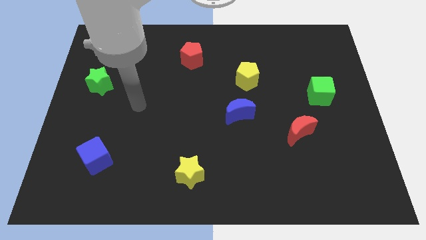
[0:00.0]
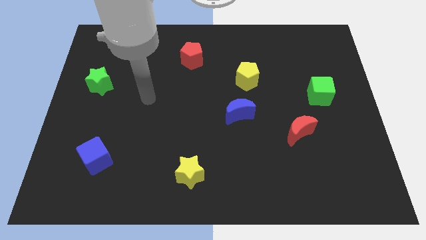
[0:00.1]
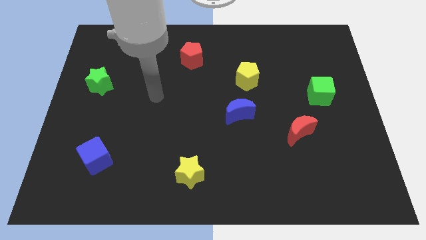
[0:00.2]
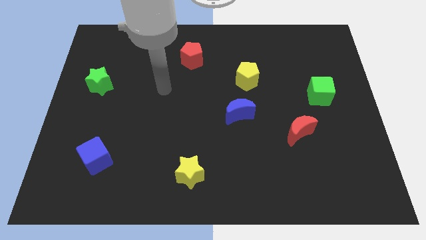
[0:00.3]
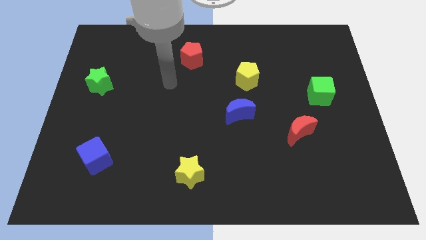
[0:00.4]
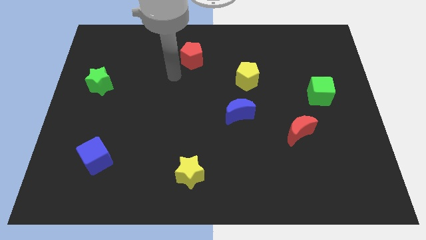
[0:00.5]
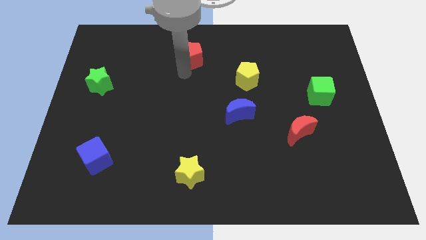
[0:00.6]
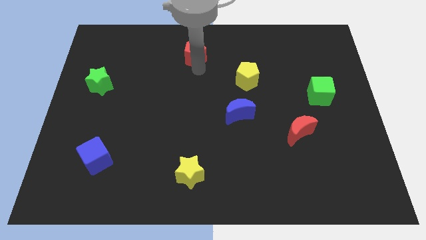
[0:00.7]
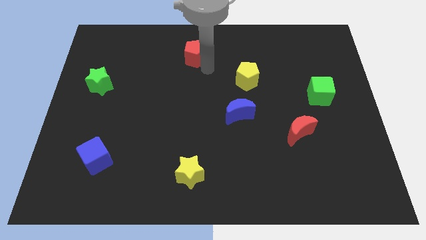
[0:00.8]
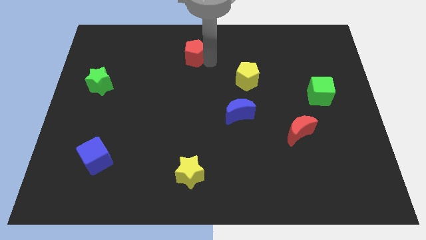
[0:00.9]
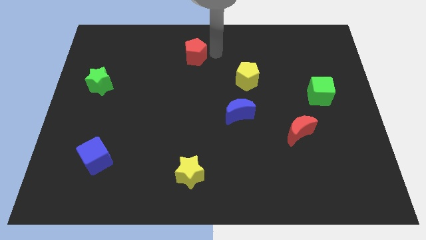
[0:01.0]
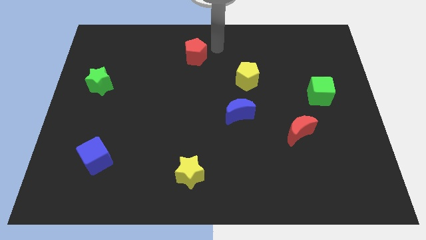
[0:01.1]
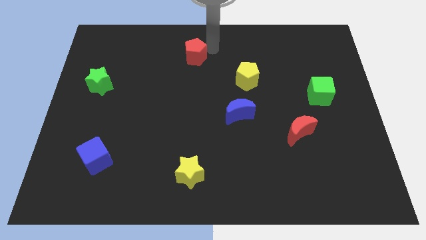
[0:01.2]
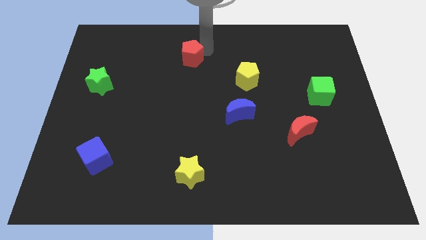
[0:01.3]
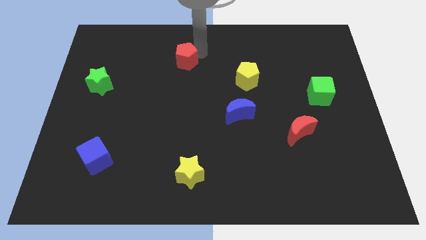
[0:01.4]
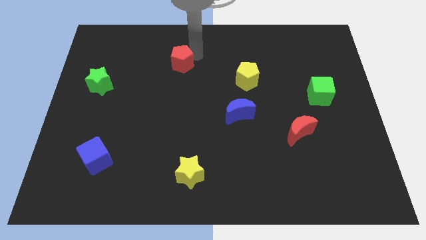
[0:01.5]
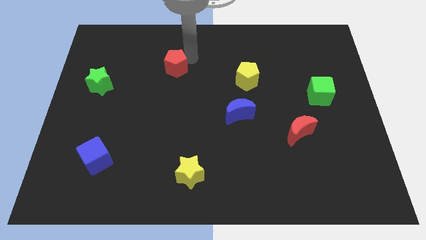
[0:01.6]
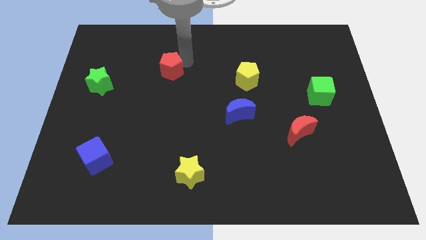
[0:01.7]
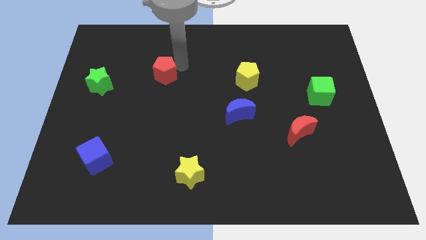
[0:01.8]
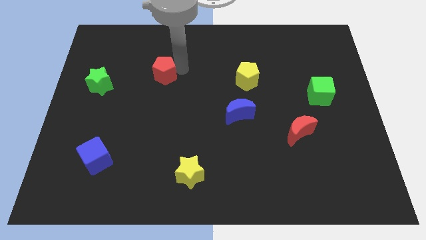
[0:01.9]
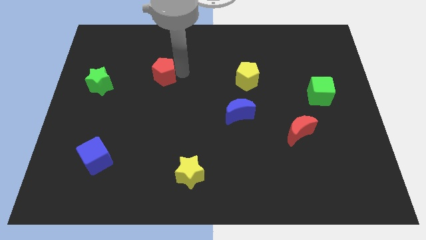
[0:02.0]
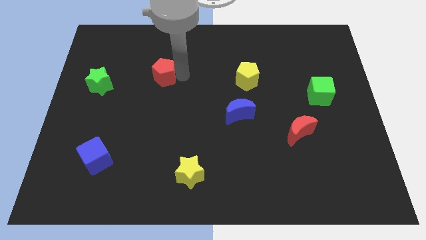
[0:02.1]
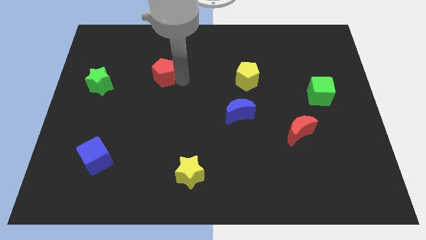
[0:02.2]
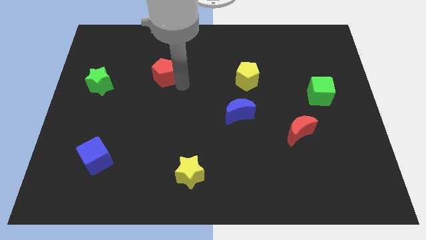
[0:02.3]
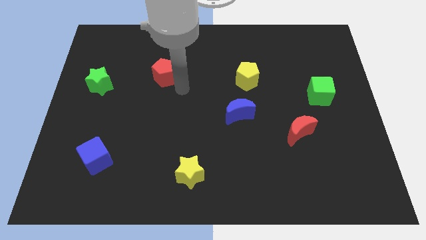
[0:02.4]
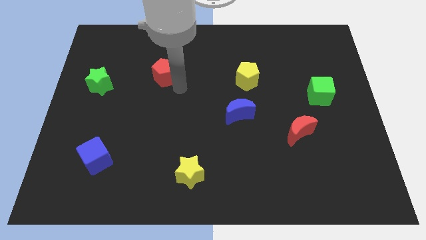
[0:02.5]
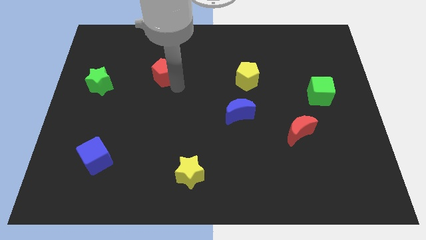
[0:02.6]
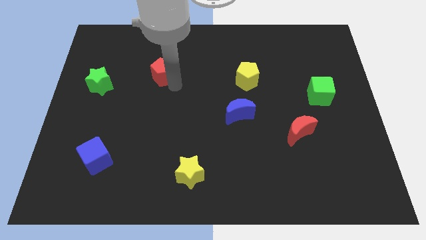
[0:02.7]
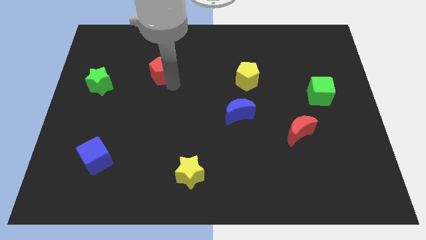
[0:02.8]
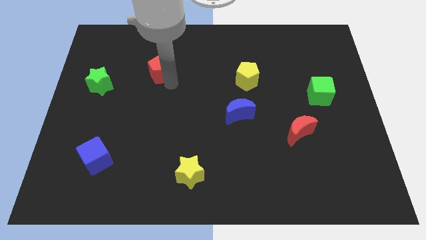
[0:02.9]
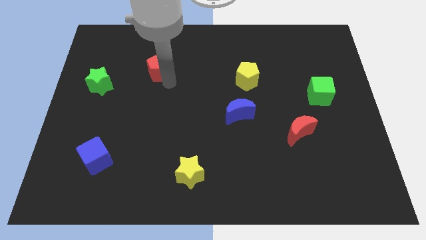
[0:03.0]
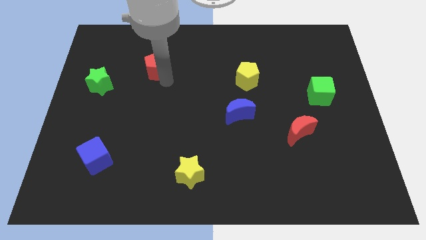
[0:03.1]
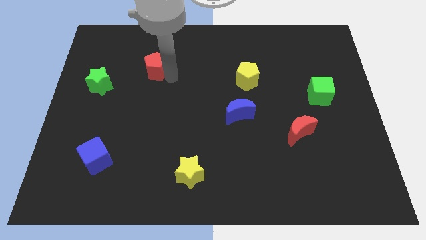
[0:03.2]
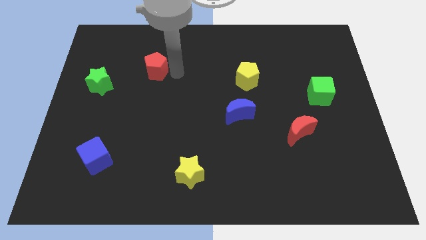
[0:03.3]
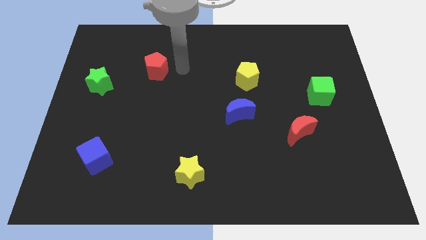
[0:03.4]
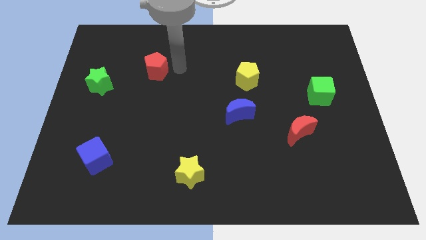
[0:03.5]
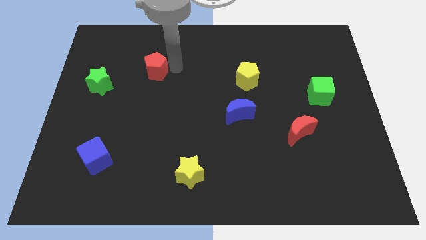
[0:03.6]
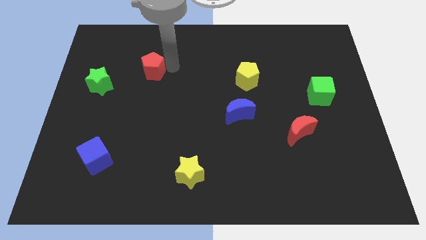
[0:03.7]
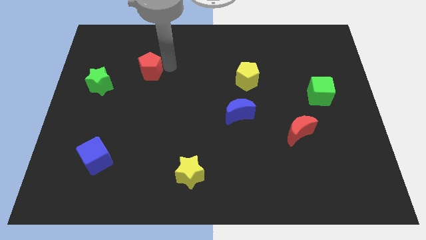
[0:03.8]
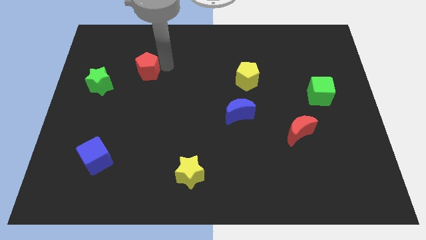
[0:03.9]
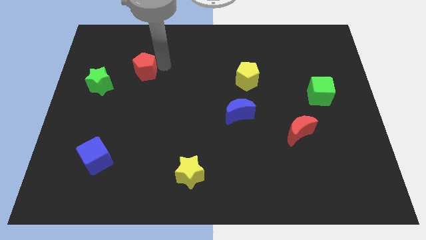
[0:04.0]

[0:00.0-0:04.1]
slide the red pentagon to the top right of the green star

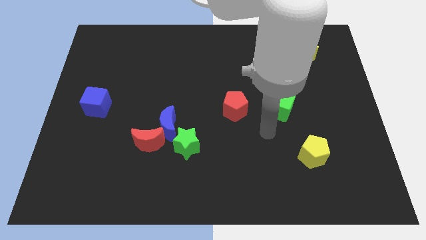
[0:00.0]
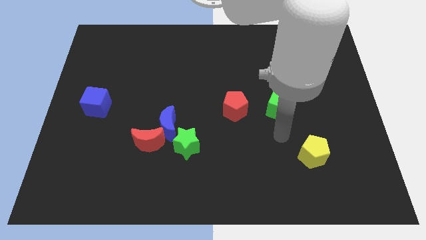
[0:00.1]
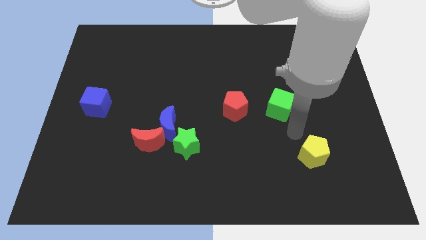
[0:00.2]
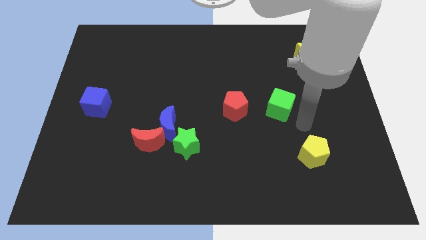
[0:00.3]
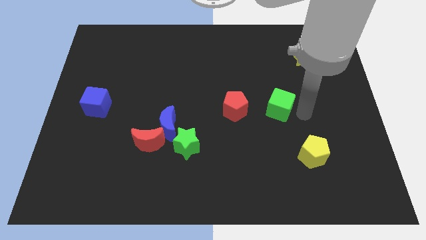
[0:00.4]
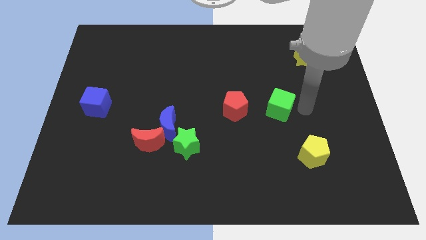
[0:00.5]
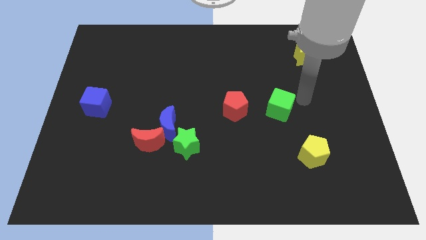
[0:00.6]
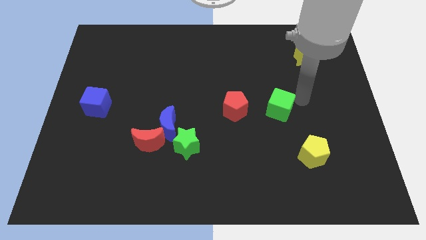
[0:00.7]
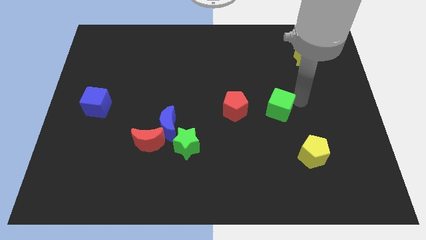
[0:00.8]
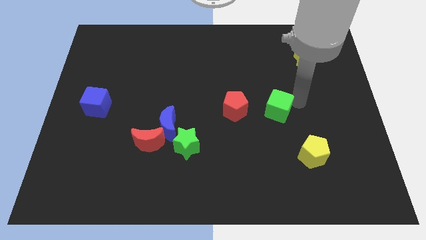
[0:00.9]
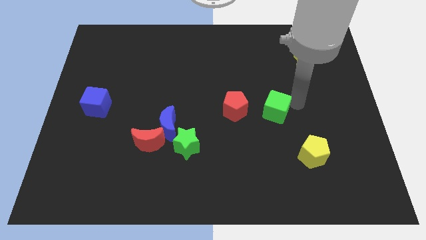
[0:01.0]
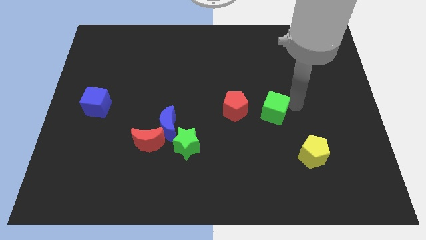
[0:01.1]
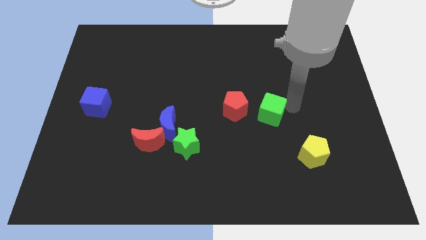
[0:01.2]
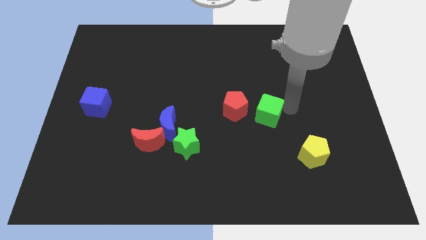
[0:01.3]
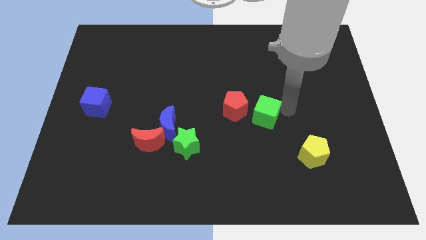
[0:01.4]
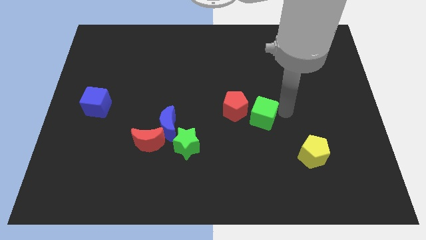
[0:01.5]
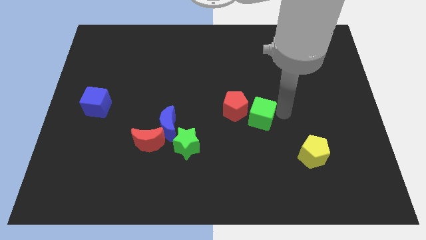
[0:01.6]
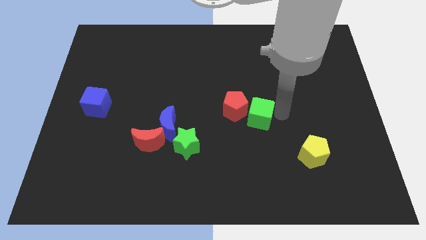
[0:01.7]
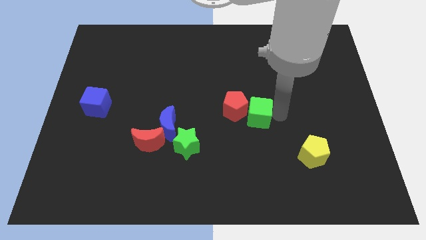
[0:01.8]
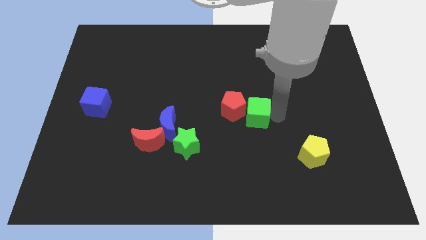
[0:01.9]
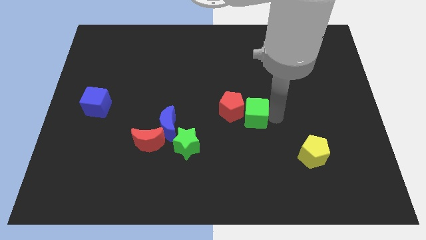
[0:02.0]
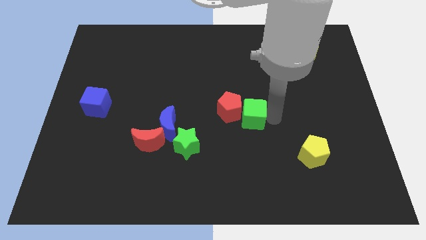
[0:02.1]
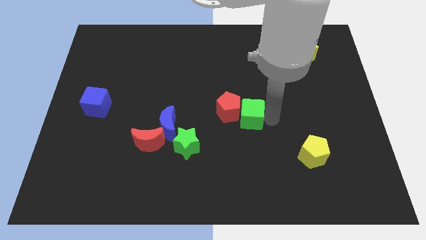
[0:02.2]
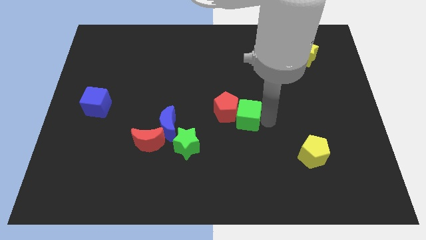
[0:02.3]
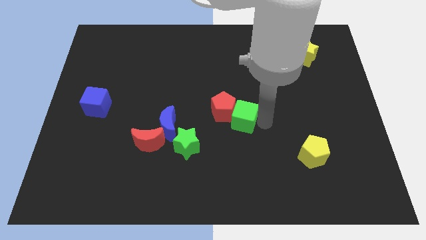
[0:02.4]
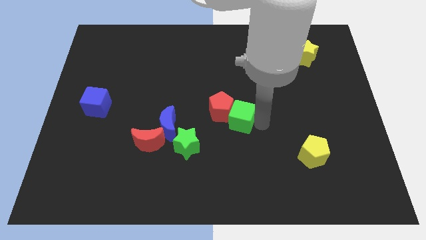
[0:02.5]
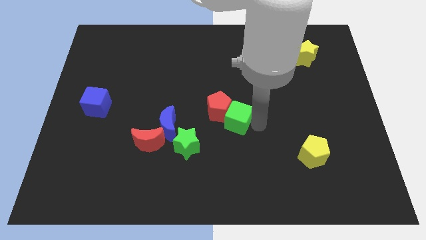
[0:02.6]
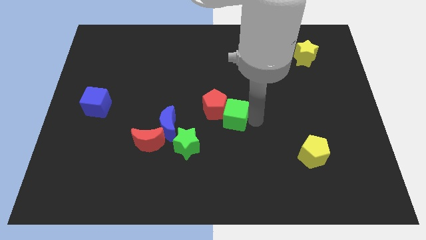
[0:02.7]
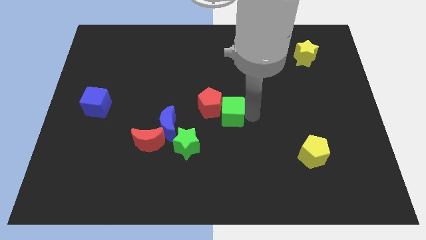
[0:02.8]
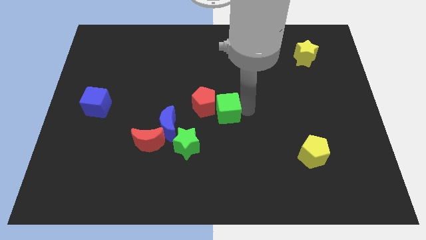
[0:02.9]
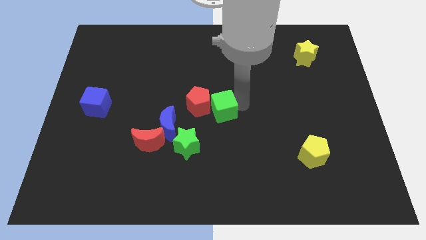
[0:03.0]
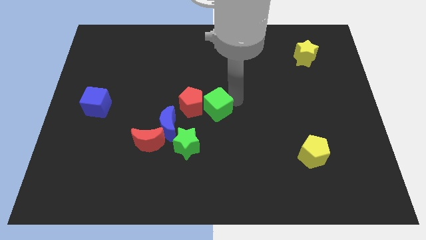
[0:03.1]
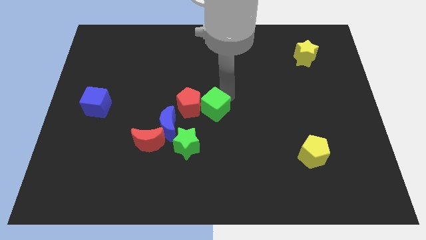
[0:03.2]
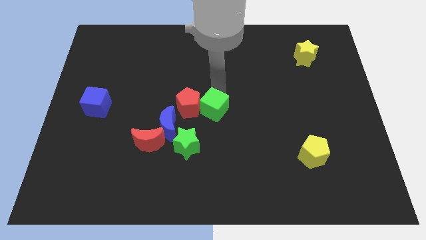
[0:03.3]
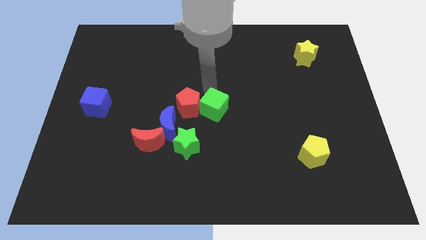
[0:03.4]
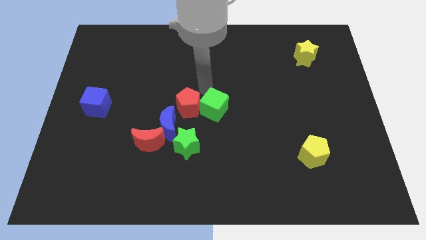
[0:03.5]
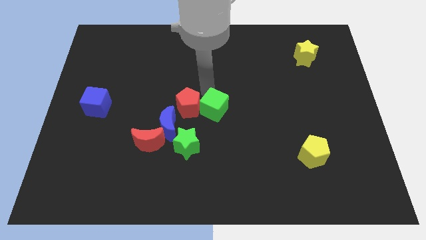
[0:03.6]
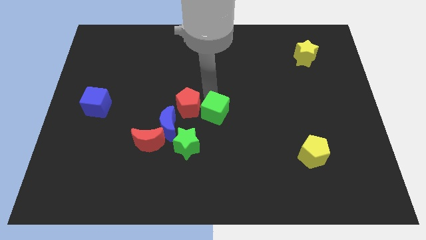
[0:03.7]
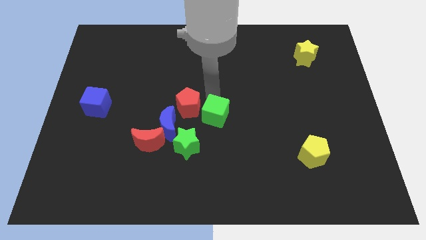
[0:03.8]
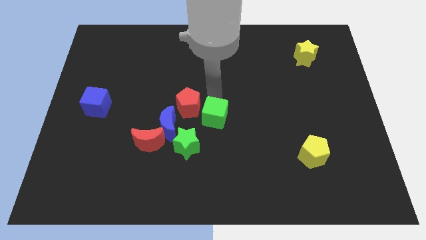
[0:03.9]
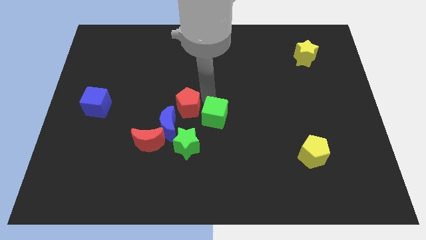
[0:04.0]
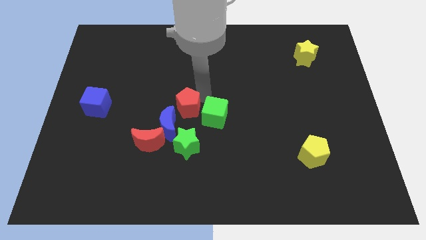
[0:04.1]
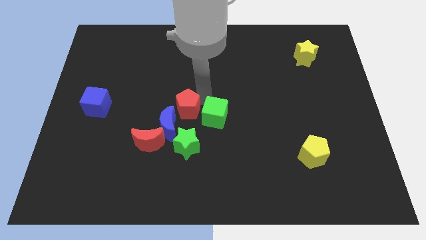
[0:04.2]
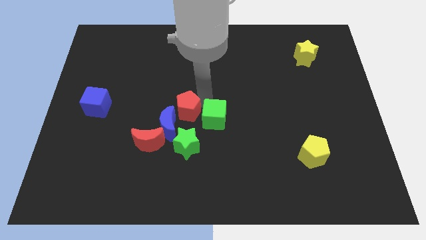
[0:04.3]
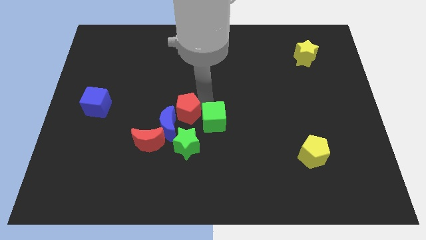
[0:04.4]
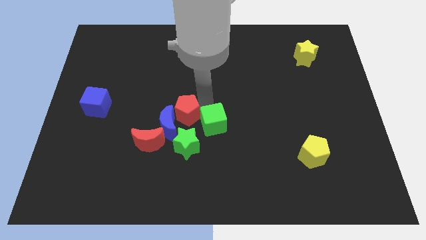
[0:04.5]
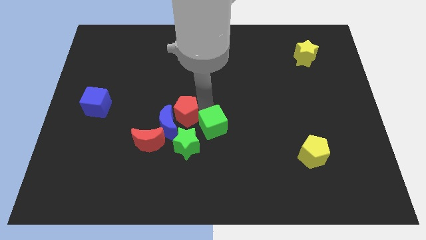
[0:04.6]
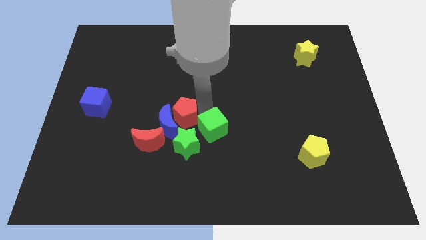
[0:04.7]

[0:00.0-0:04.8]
push the green cube to the right of the green star
